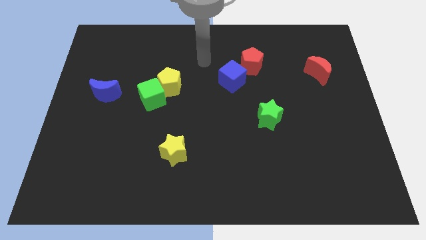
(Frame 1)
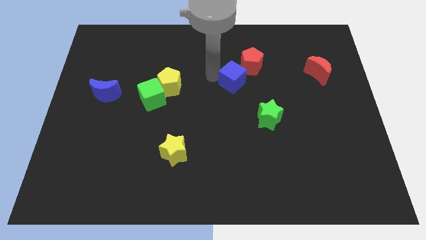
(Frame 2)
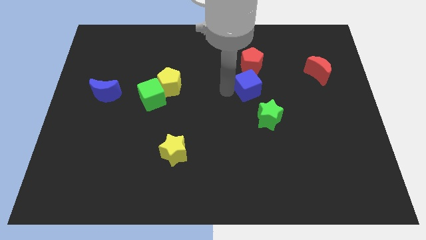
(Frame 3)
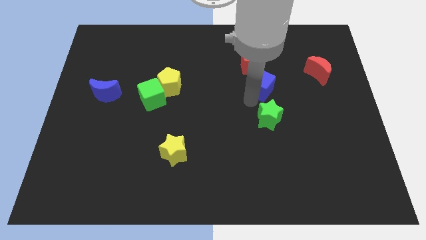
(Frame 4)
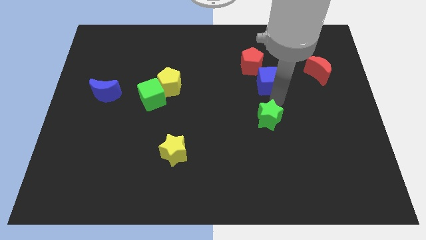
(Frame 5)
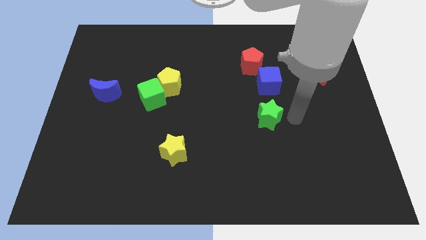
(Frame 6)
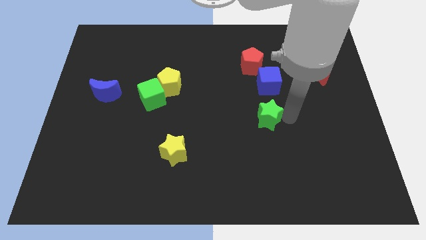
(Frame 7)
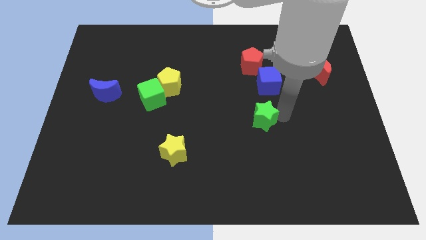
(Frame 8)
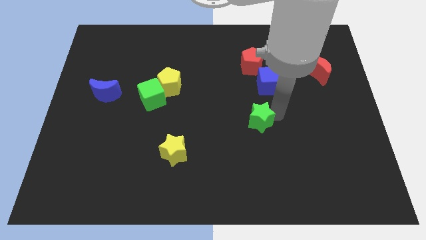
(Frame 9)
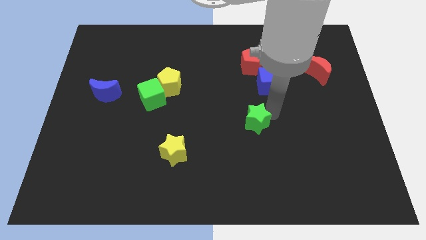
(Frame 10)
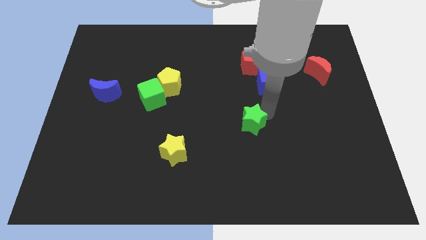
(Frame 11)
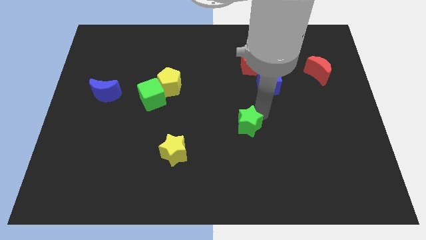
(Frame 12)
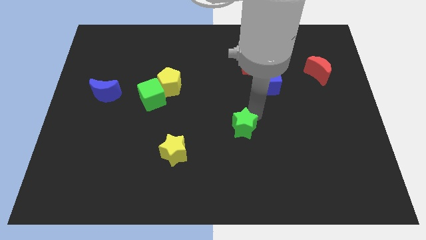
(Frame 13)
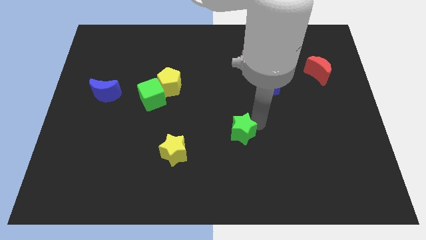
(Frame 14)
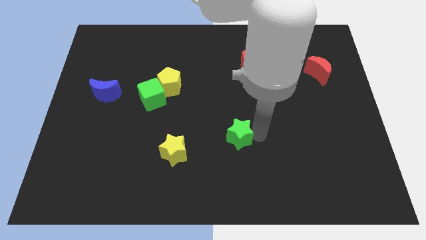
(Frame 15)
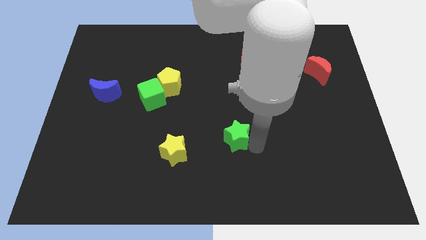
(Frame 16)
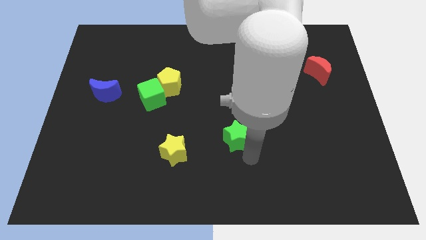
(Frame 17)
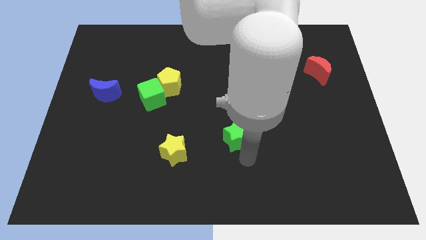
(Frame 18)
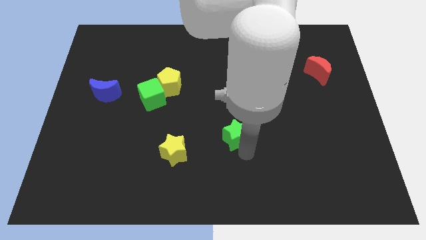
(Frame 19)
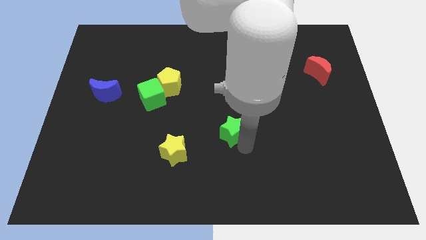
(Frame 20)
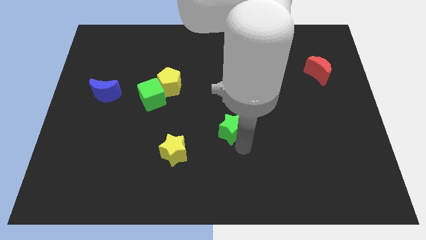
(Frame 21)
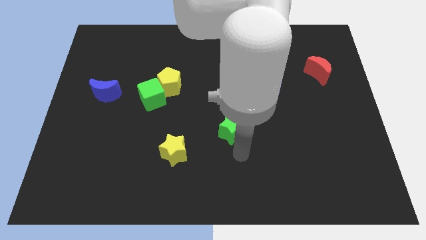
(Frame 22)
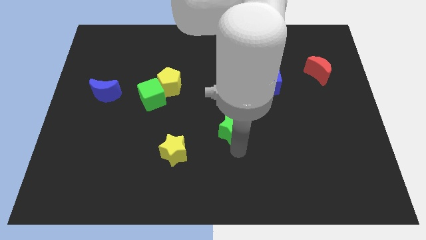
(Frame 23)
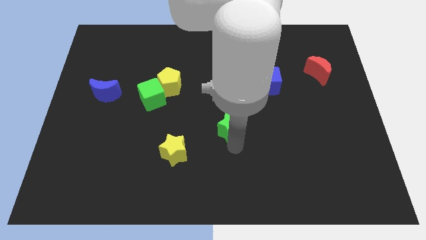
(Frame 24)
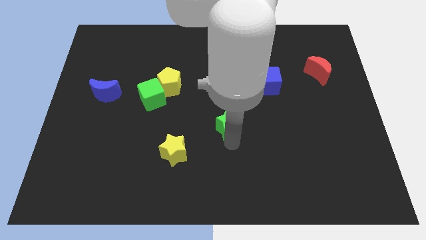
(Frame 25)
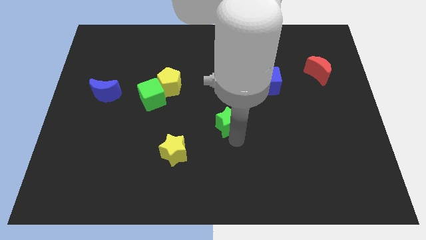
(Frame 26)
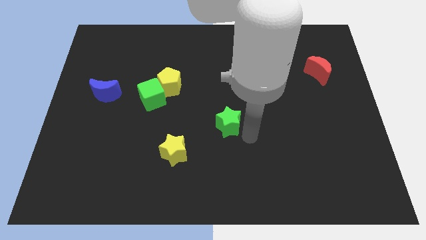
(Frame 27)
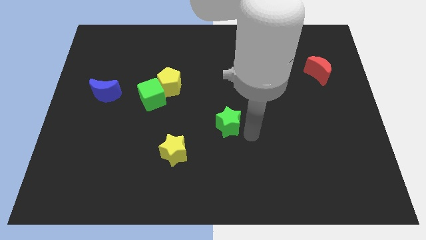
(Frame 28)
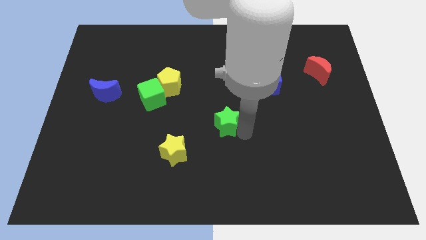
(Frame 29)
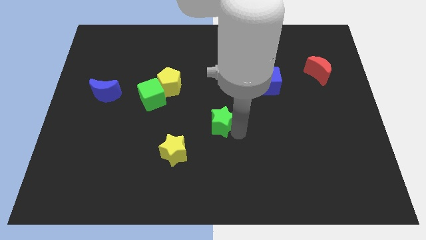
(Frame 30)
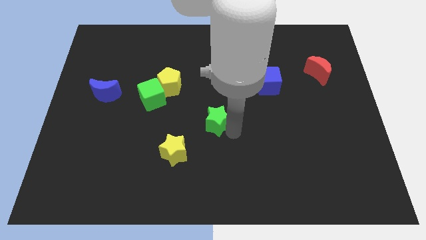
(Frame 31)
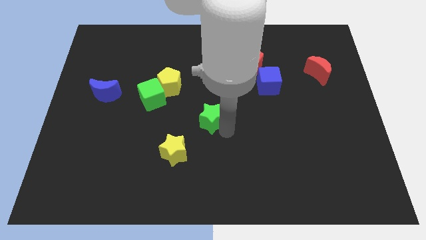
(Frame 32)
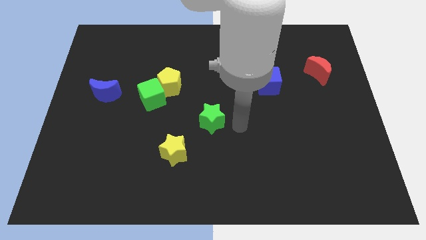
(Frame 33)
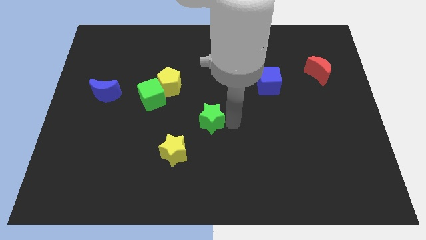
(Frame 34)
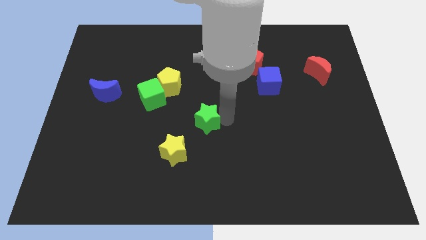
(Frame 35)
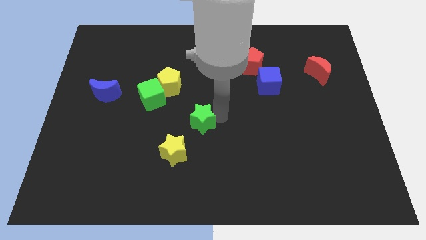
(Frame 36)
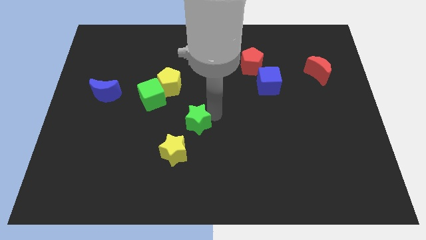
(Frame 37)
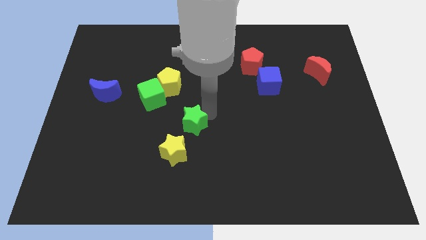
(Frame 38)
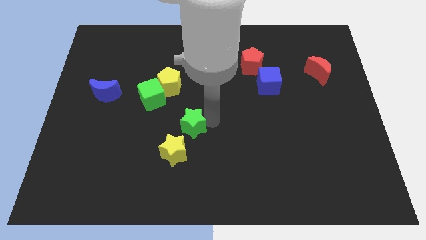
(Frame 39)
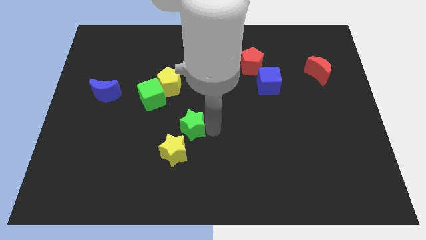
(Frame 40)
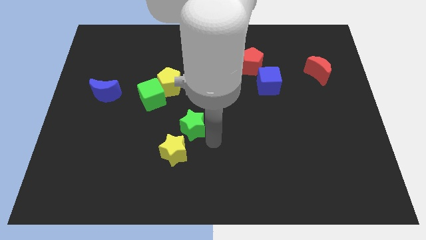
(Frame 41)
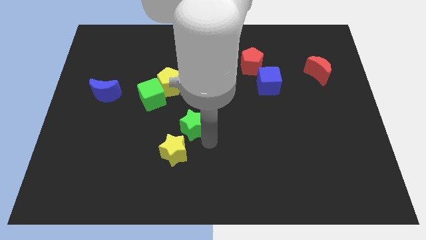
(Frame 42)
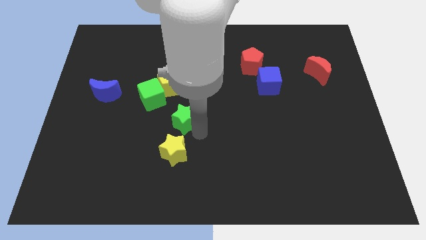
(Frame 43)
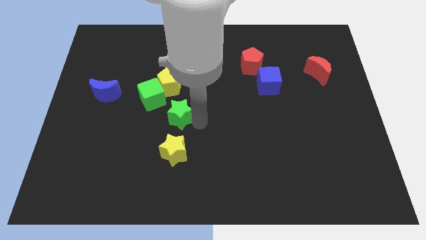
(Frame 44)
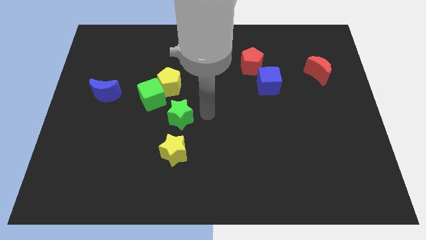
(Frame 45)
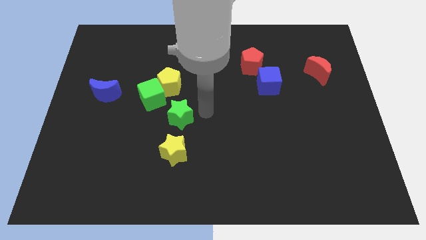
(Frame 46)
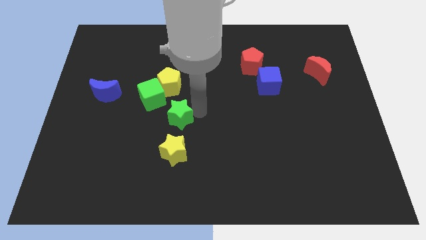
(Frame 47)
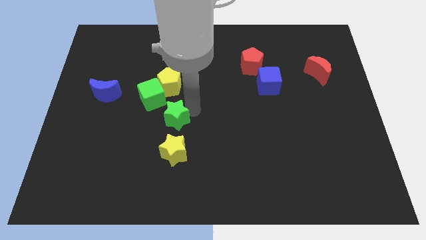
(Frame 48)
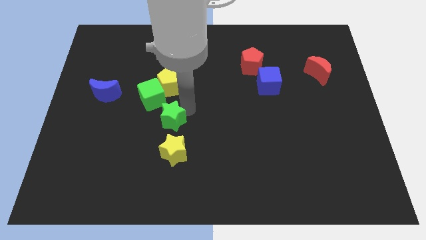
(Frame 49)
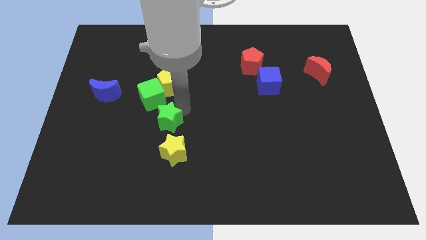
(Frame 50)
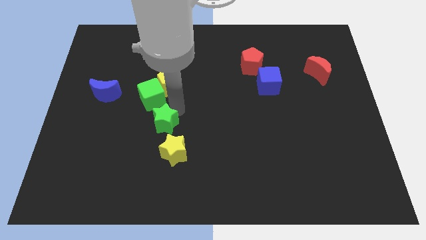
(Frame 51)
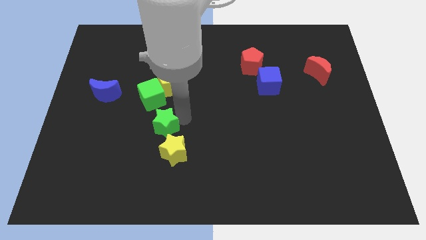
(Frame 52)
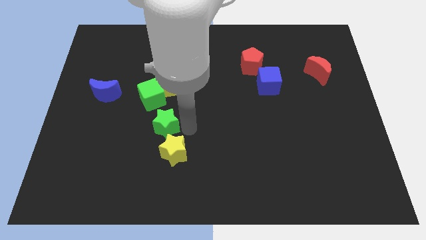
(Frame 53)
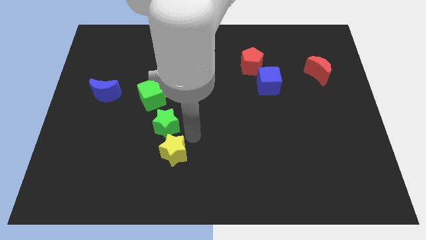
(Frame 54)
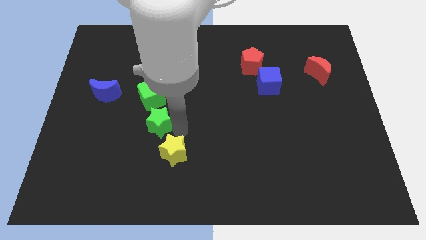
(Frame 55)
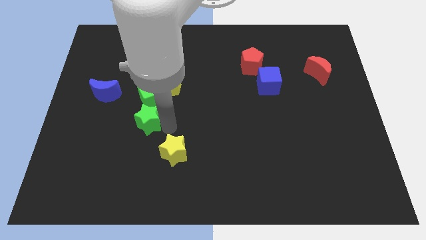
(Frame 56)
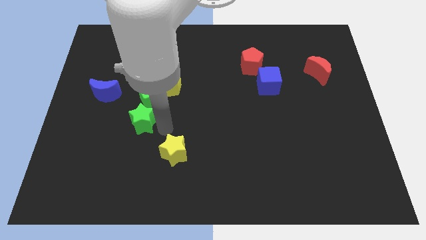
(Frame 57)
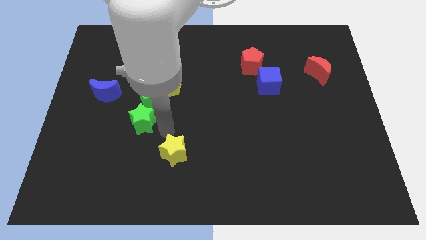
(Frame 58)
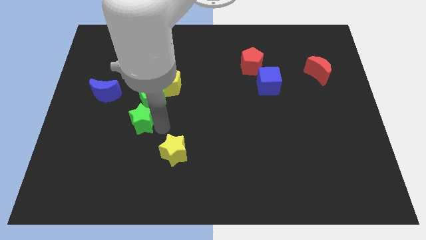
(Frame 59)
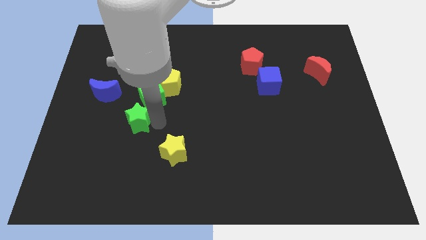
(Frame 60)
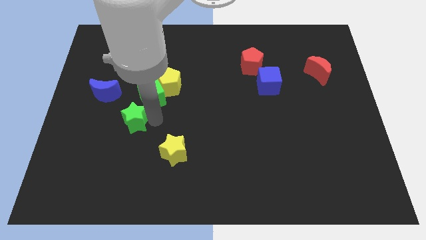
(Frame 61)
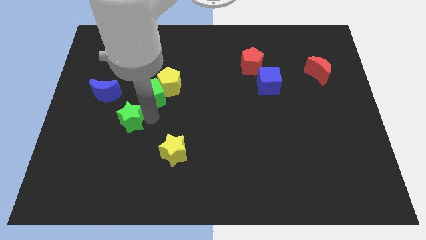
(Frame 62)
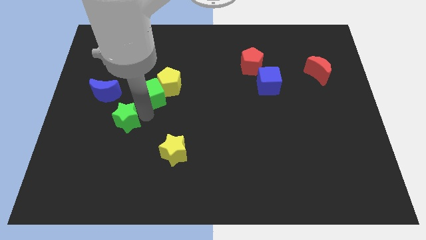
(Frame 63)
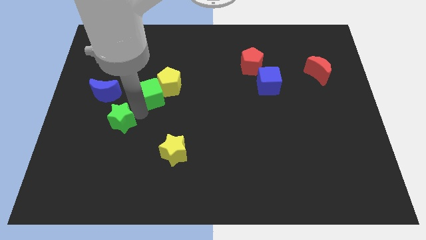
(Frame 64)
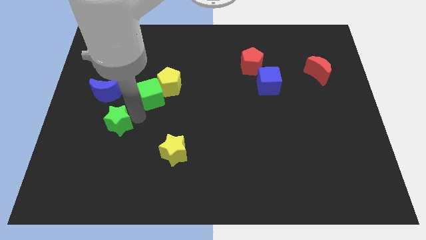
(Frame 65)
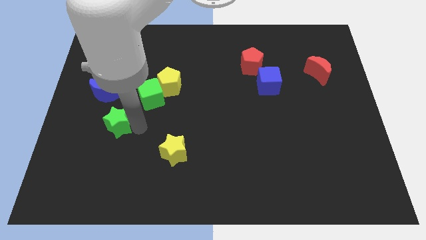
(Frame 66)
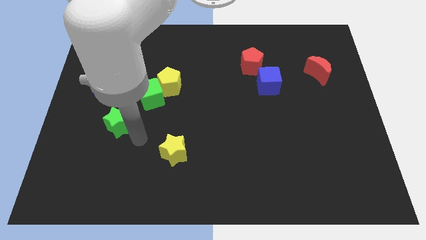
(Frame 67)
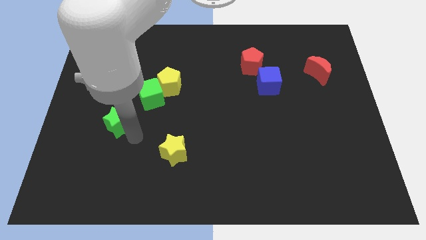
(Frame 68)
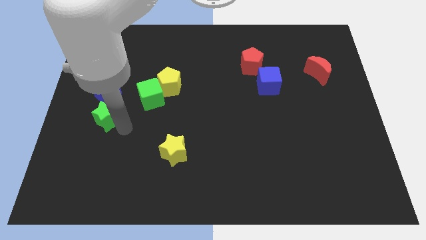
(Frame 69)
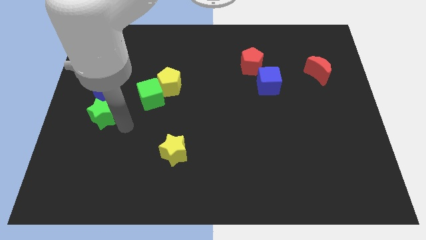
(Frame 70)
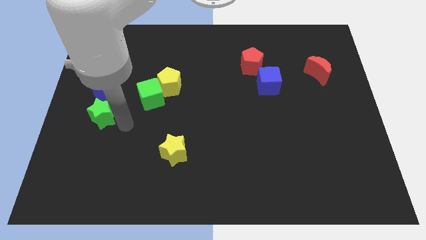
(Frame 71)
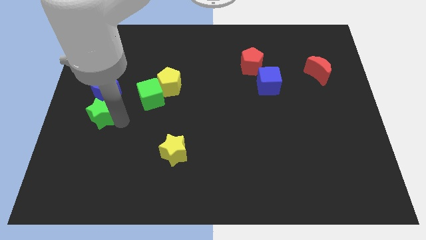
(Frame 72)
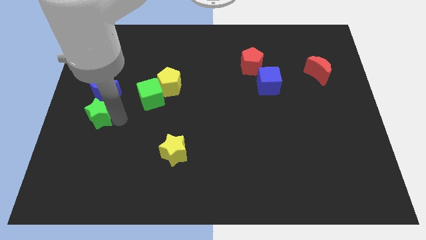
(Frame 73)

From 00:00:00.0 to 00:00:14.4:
move the green star to the left side of the board
